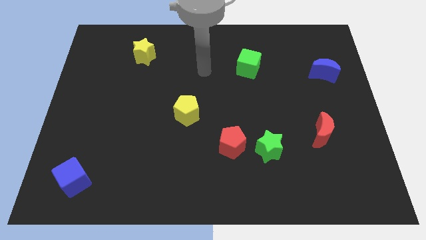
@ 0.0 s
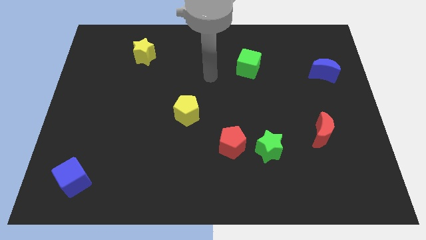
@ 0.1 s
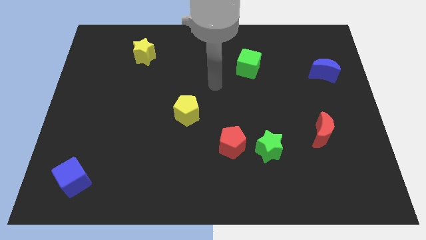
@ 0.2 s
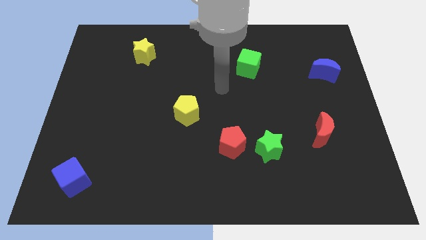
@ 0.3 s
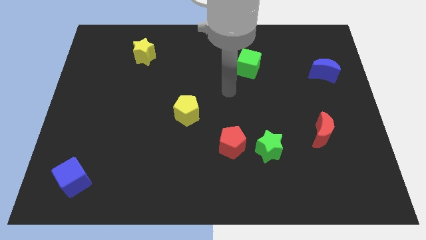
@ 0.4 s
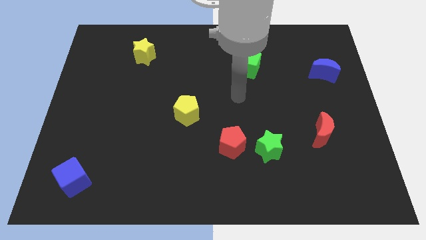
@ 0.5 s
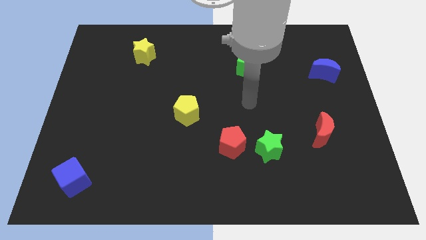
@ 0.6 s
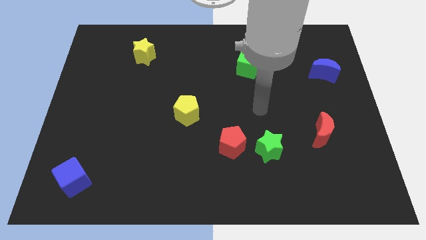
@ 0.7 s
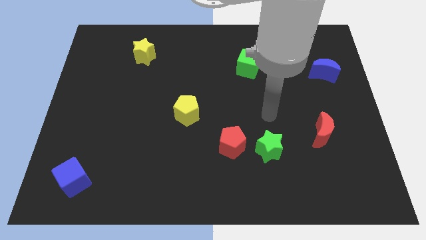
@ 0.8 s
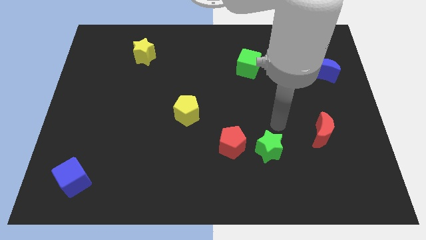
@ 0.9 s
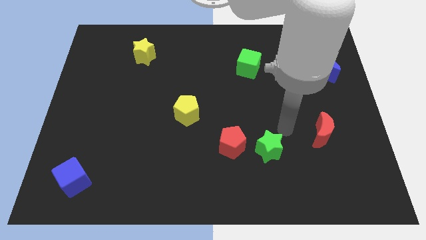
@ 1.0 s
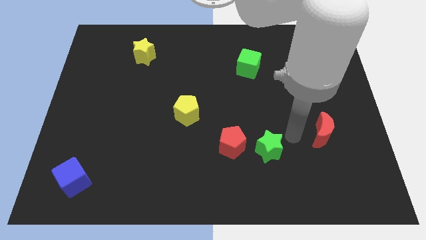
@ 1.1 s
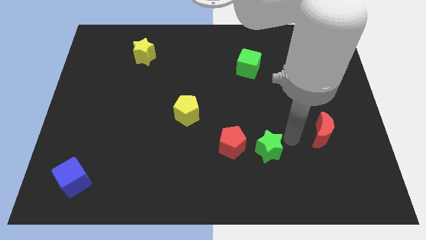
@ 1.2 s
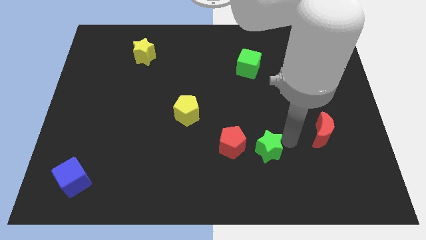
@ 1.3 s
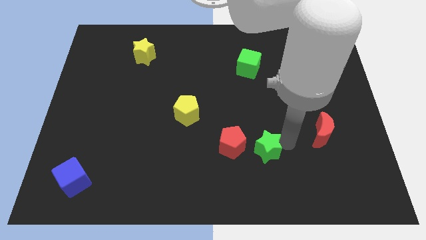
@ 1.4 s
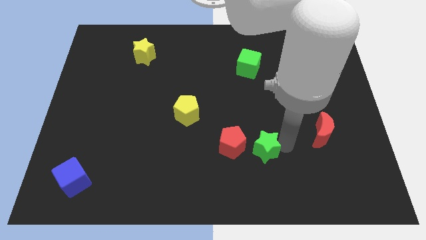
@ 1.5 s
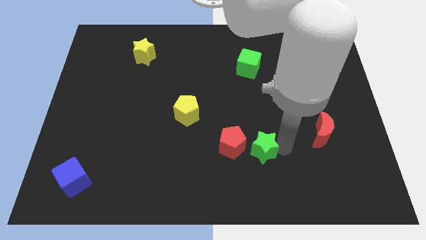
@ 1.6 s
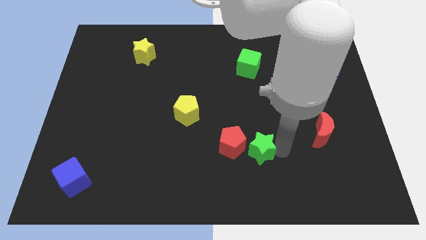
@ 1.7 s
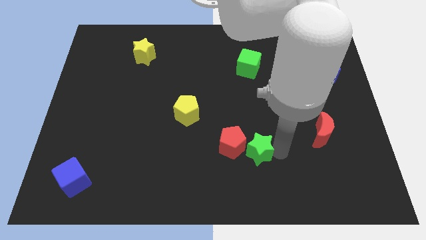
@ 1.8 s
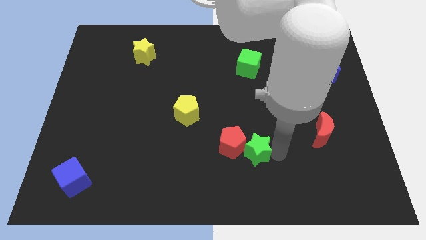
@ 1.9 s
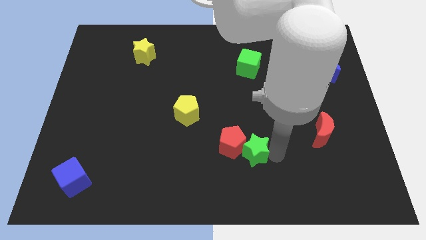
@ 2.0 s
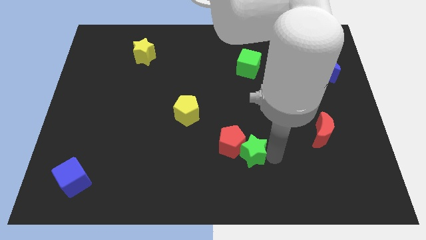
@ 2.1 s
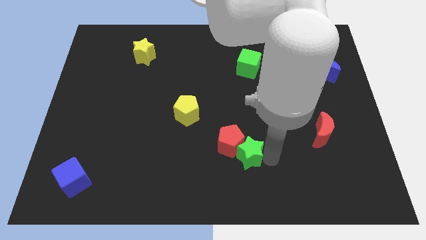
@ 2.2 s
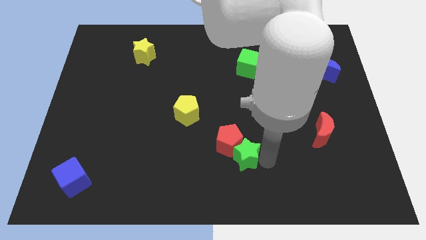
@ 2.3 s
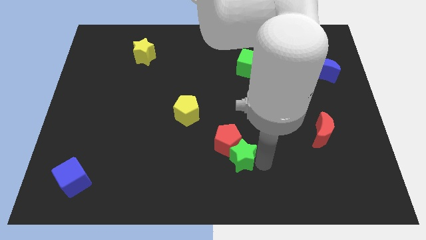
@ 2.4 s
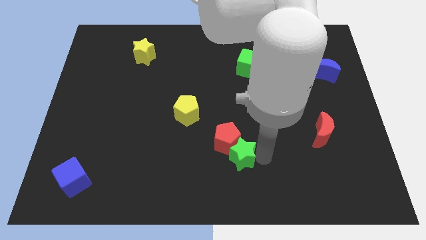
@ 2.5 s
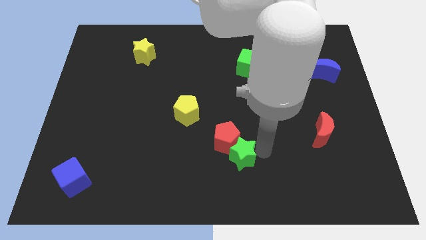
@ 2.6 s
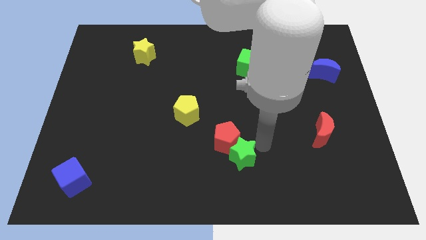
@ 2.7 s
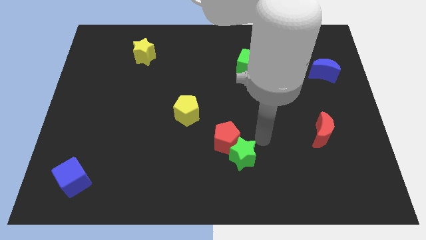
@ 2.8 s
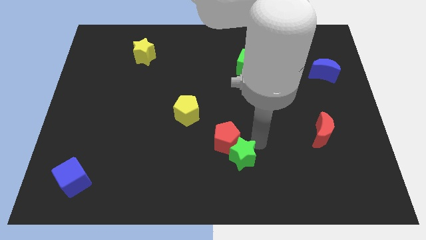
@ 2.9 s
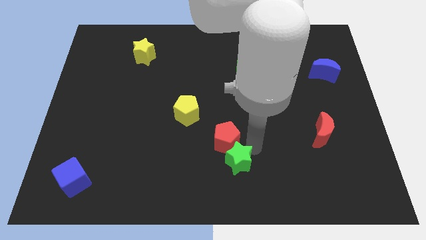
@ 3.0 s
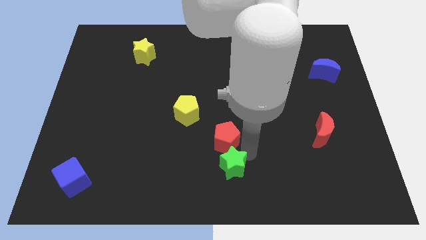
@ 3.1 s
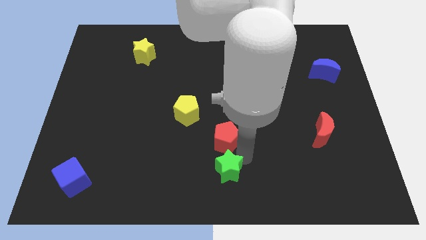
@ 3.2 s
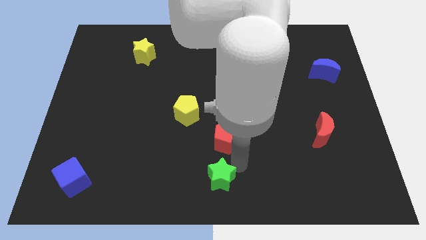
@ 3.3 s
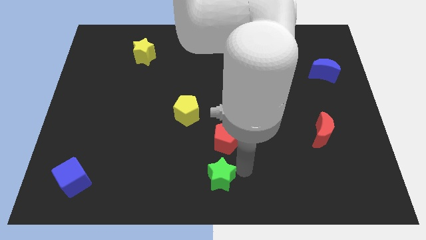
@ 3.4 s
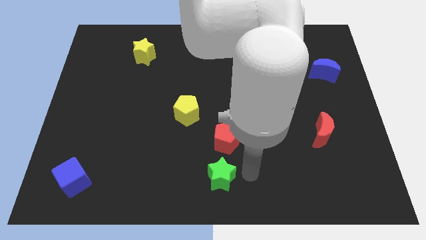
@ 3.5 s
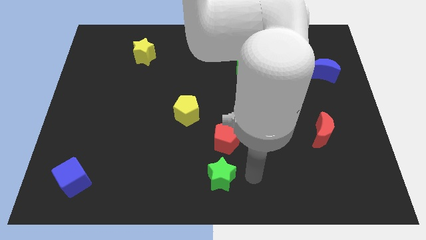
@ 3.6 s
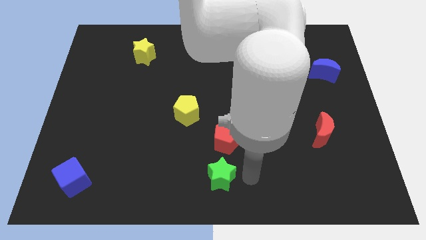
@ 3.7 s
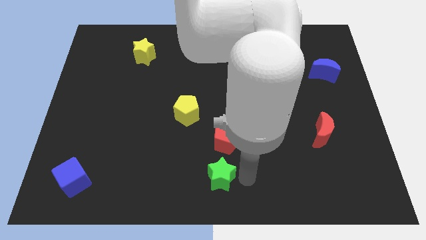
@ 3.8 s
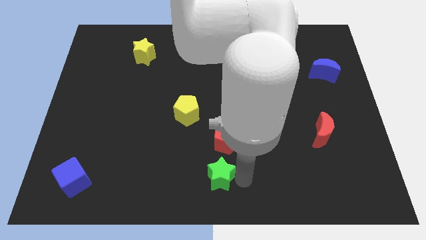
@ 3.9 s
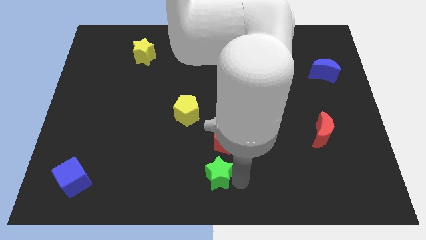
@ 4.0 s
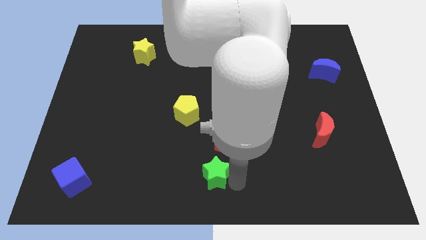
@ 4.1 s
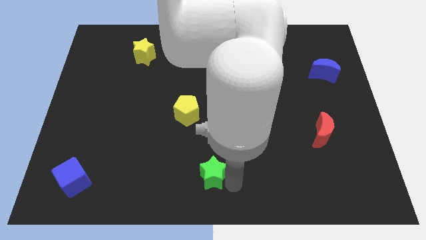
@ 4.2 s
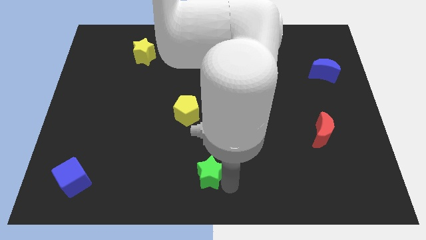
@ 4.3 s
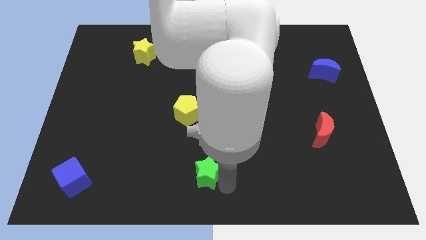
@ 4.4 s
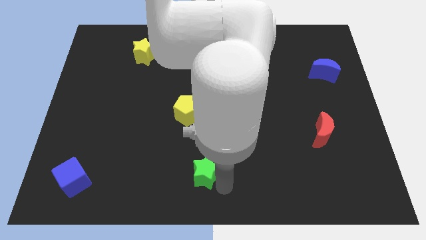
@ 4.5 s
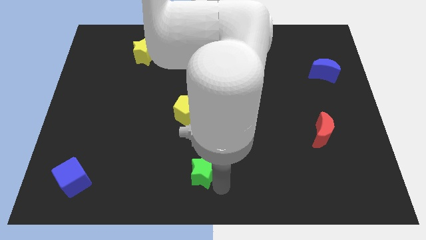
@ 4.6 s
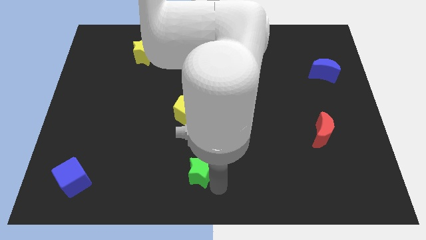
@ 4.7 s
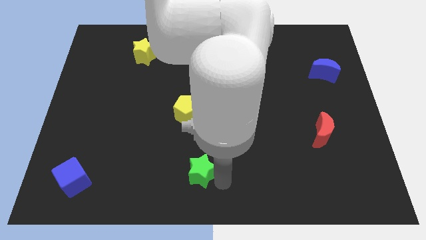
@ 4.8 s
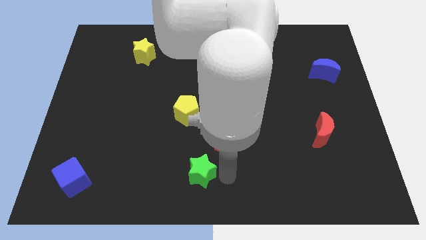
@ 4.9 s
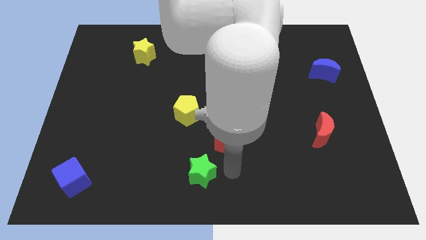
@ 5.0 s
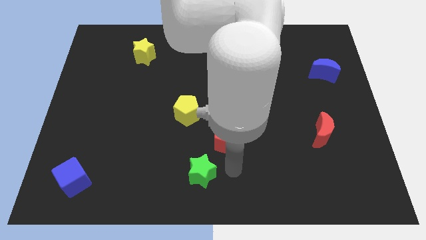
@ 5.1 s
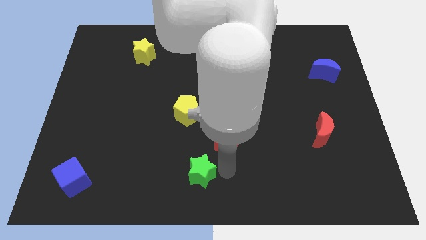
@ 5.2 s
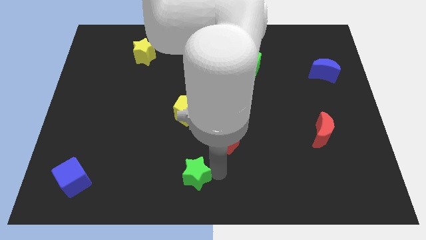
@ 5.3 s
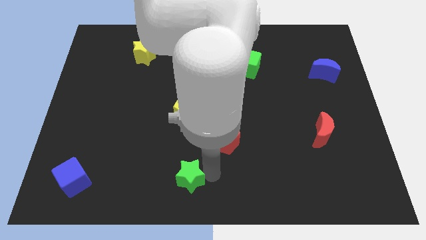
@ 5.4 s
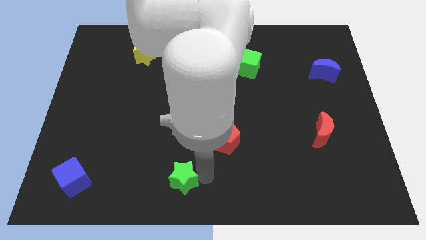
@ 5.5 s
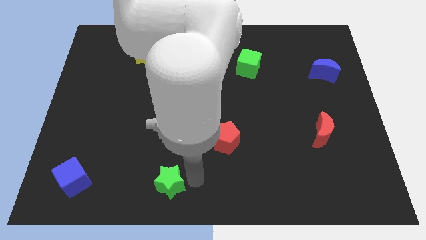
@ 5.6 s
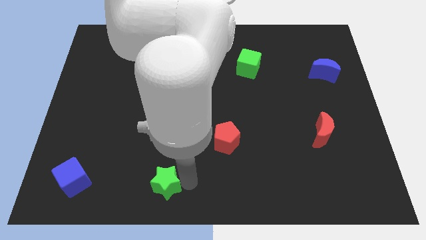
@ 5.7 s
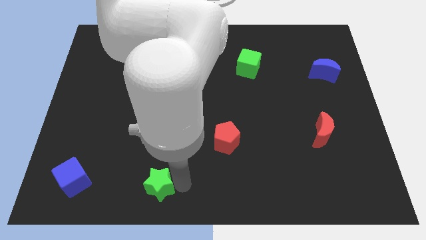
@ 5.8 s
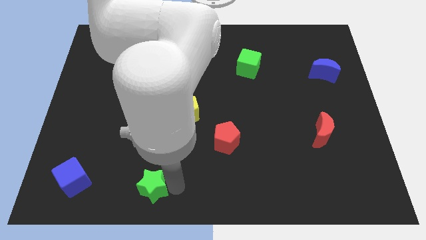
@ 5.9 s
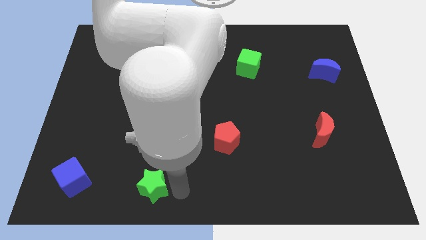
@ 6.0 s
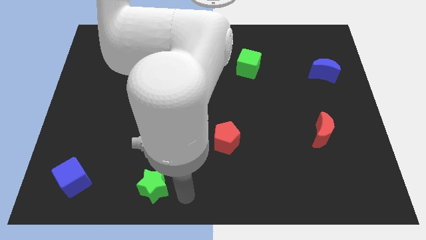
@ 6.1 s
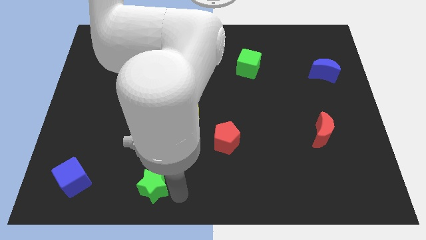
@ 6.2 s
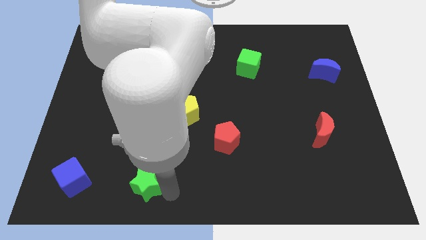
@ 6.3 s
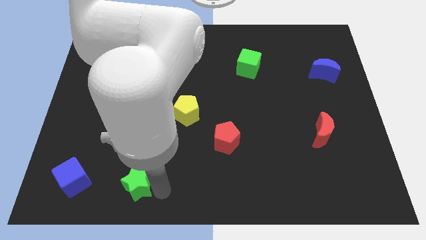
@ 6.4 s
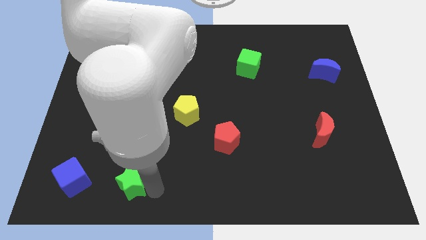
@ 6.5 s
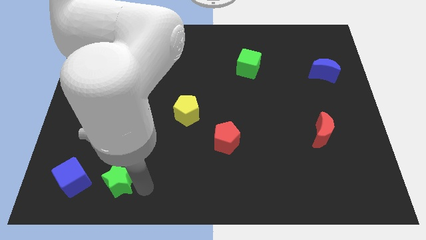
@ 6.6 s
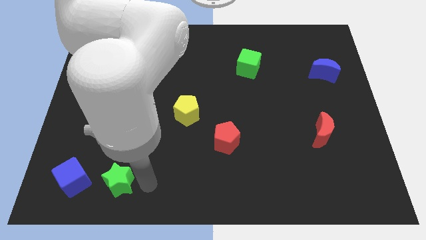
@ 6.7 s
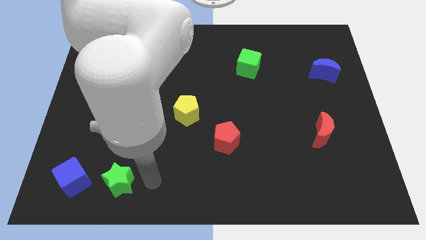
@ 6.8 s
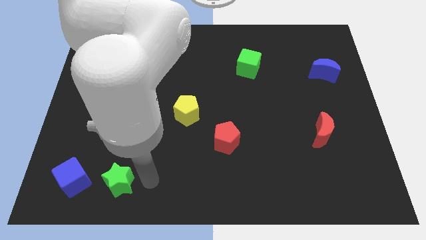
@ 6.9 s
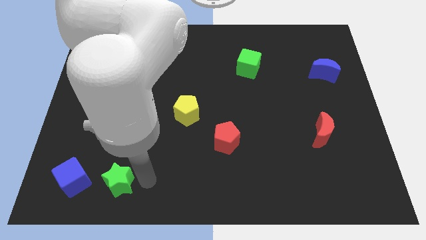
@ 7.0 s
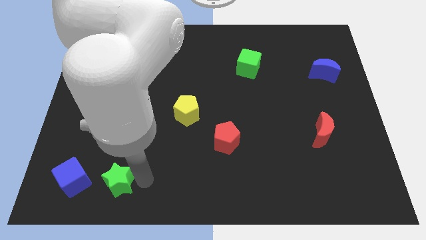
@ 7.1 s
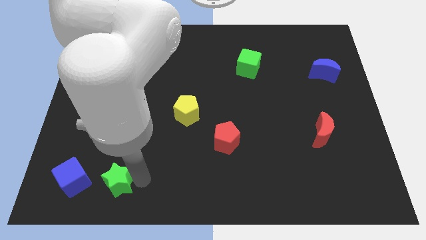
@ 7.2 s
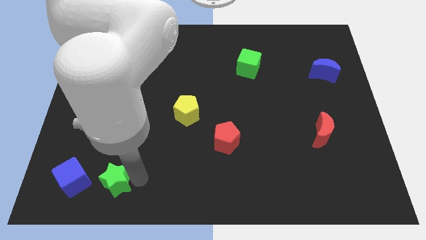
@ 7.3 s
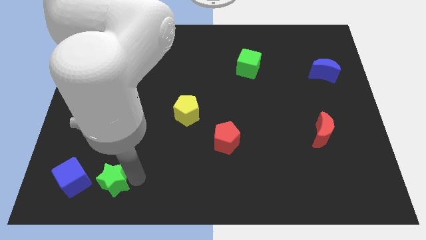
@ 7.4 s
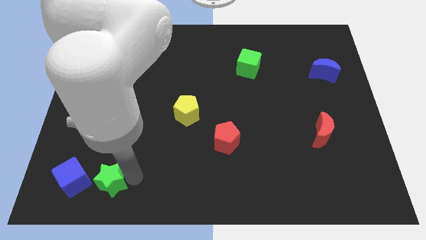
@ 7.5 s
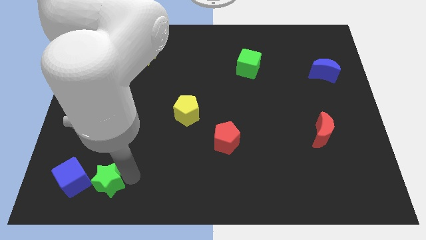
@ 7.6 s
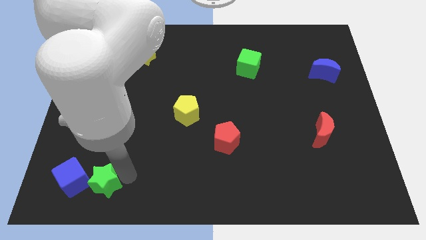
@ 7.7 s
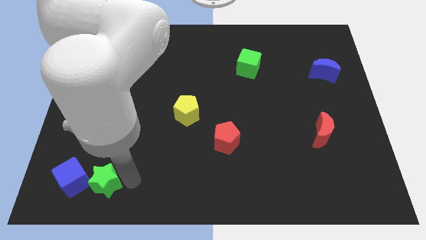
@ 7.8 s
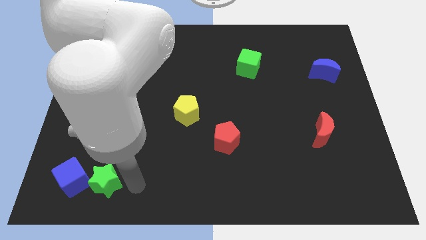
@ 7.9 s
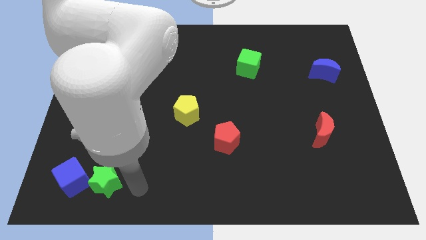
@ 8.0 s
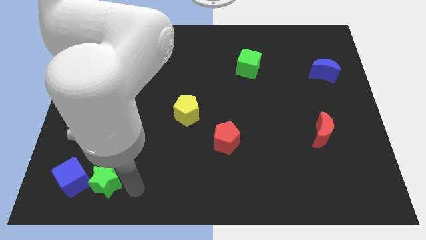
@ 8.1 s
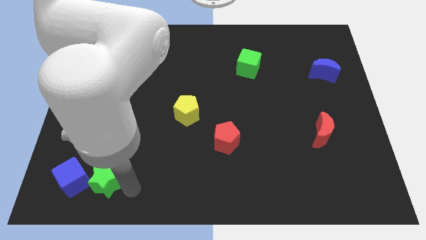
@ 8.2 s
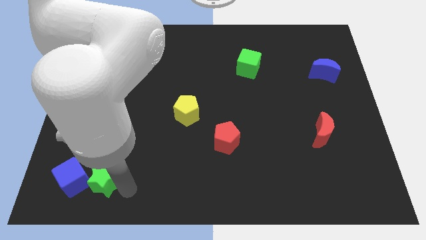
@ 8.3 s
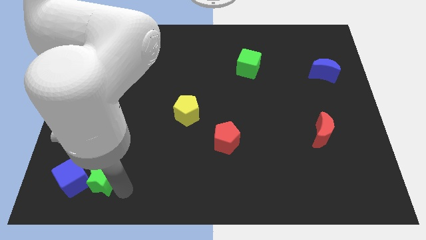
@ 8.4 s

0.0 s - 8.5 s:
move the green star close to the blue cube
